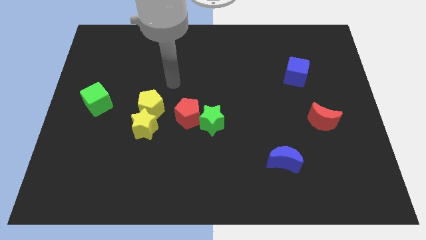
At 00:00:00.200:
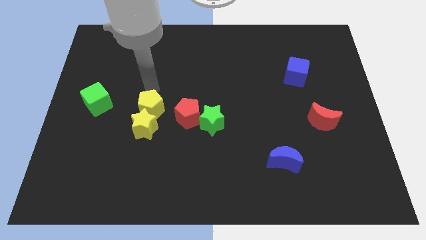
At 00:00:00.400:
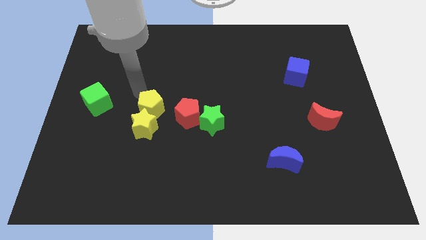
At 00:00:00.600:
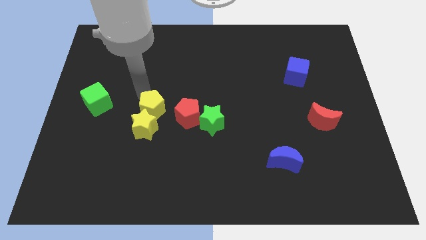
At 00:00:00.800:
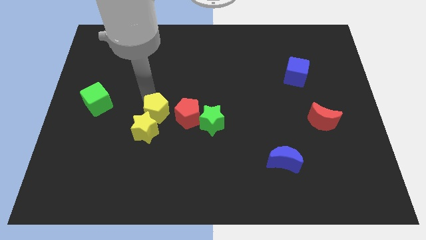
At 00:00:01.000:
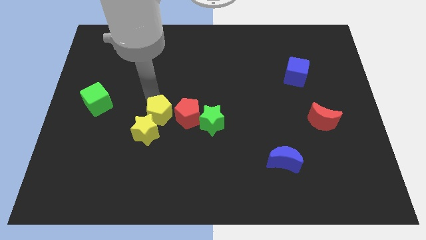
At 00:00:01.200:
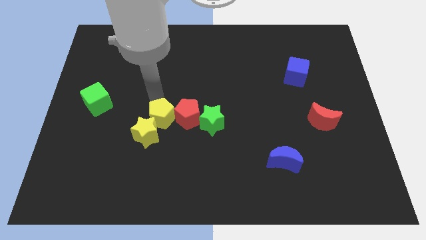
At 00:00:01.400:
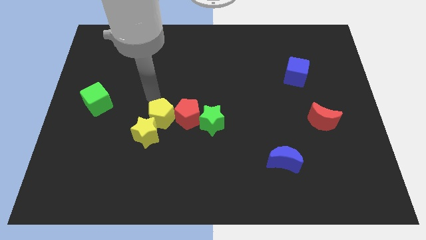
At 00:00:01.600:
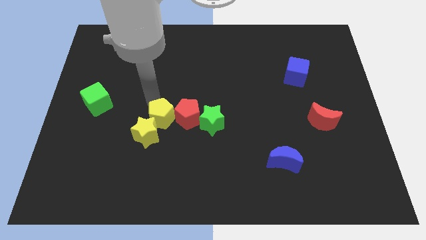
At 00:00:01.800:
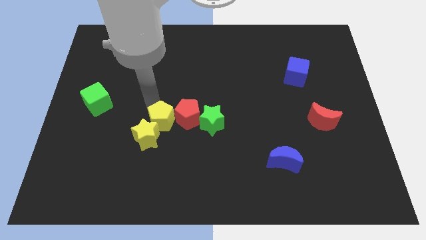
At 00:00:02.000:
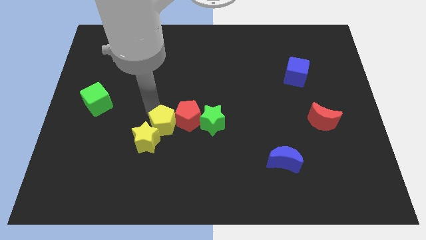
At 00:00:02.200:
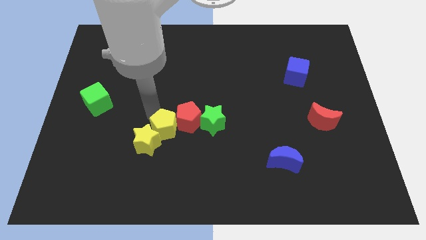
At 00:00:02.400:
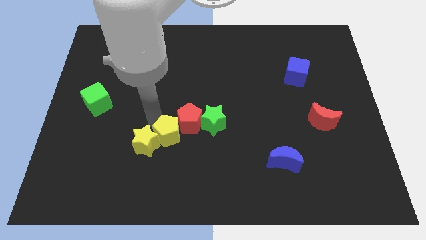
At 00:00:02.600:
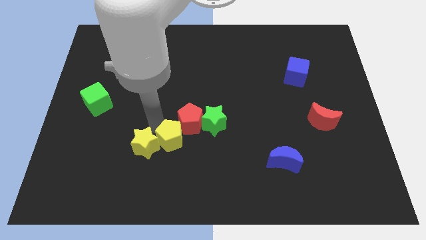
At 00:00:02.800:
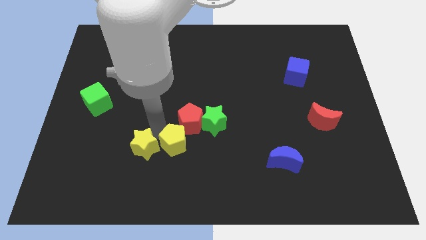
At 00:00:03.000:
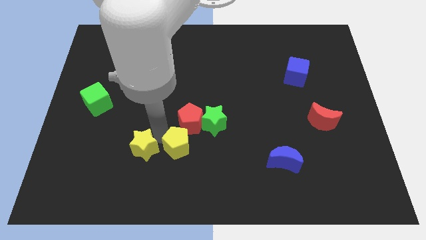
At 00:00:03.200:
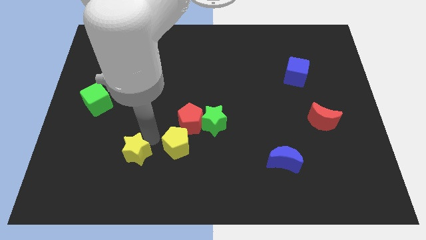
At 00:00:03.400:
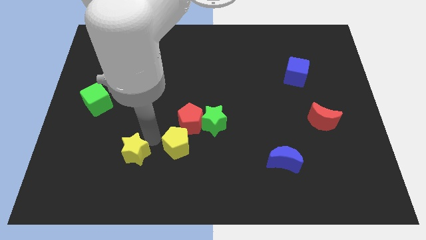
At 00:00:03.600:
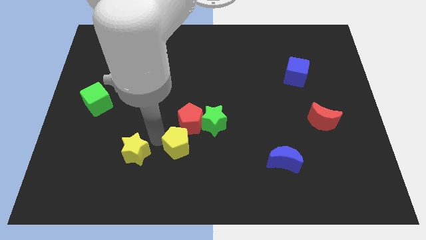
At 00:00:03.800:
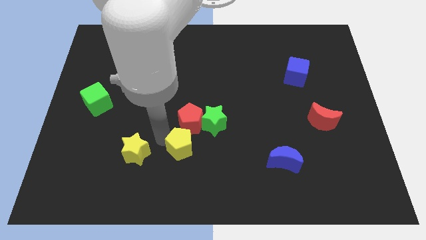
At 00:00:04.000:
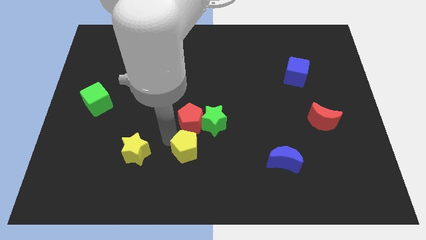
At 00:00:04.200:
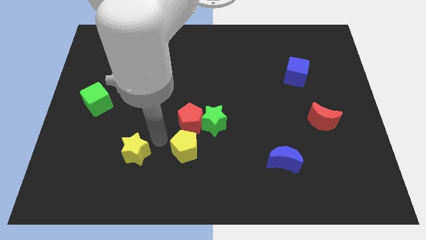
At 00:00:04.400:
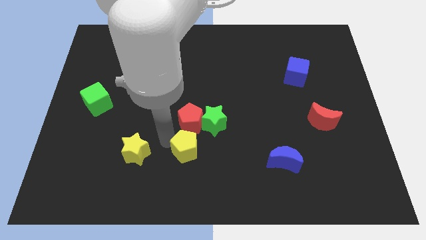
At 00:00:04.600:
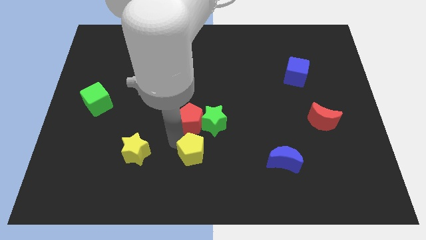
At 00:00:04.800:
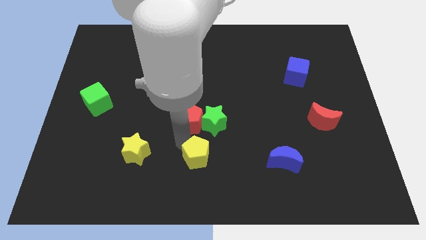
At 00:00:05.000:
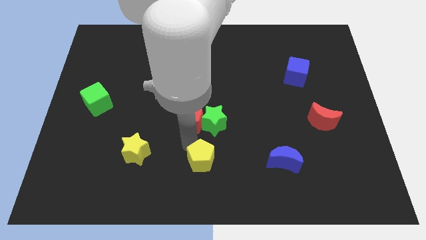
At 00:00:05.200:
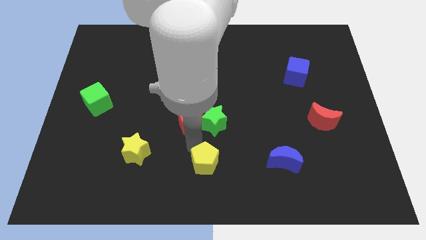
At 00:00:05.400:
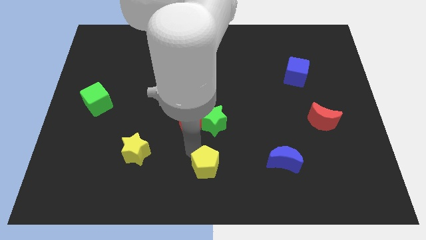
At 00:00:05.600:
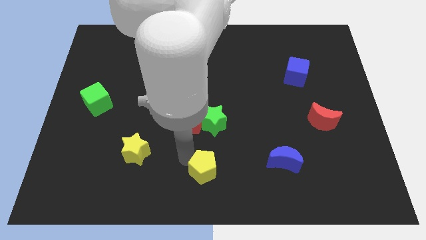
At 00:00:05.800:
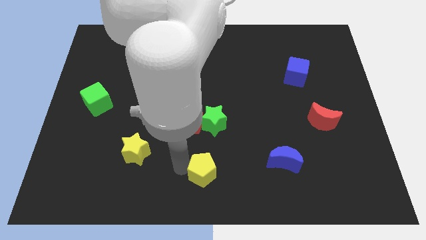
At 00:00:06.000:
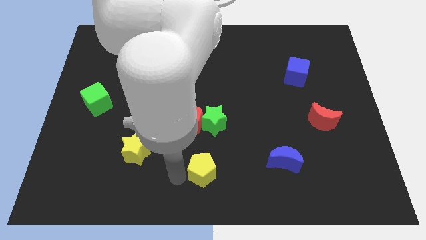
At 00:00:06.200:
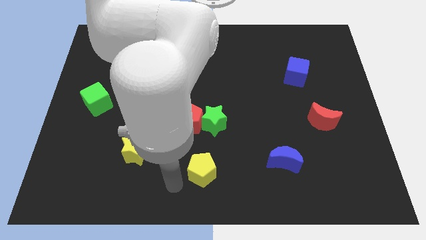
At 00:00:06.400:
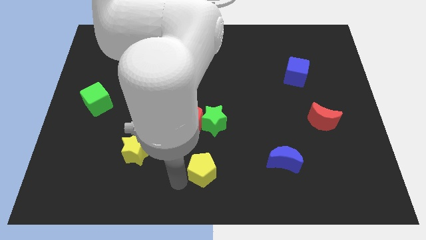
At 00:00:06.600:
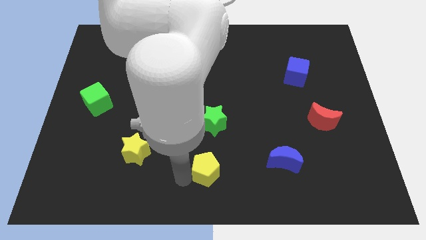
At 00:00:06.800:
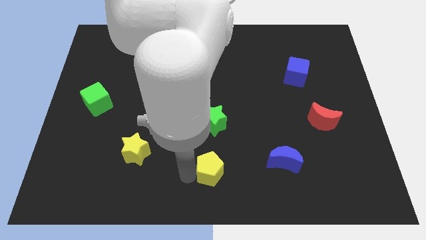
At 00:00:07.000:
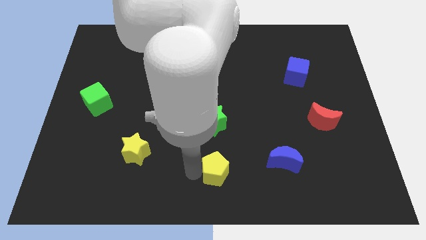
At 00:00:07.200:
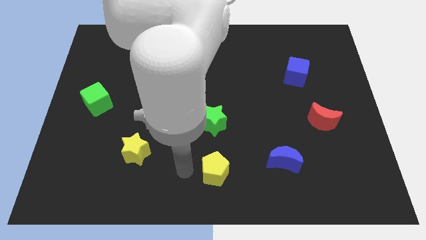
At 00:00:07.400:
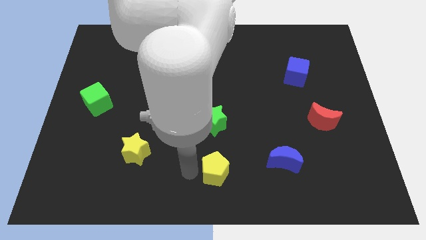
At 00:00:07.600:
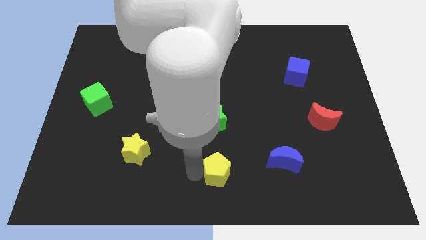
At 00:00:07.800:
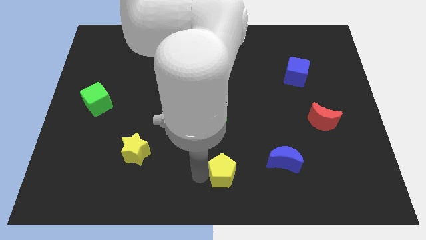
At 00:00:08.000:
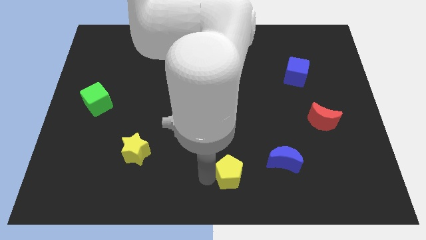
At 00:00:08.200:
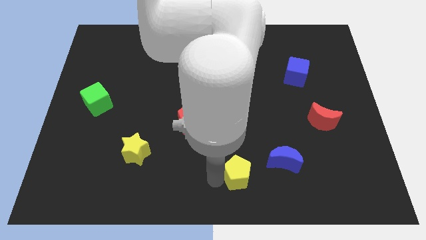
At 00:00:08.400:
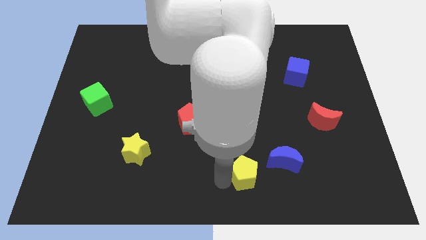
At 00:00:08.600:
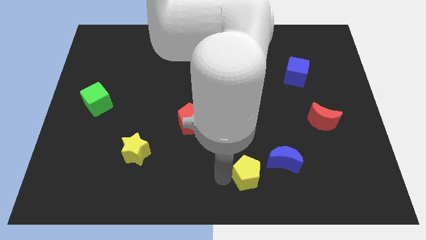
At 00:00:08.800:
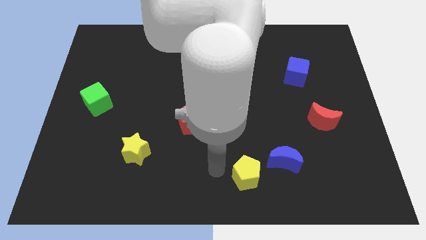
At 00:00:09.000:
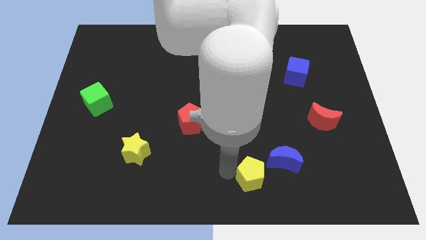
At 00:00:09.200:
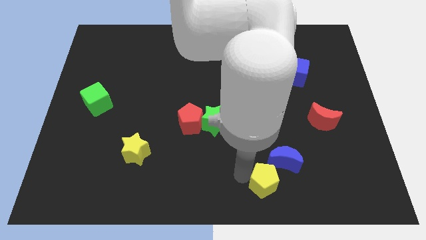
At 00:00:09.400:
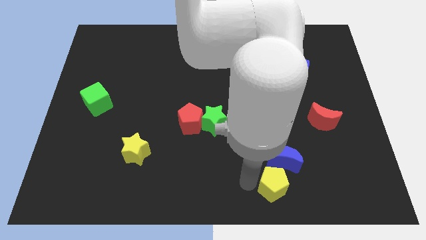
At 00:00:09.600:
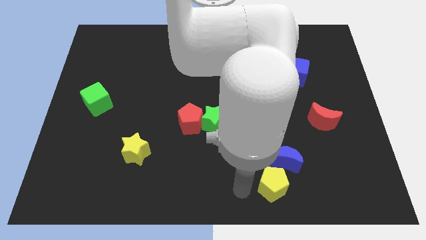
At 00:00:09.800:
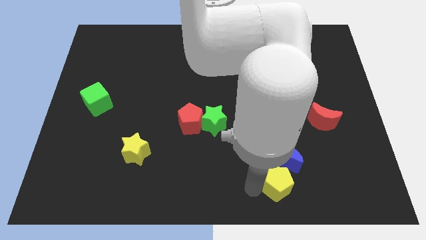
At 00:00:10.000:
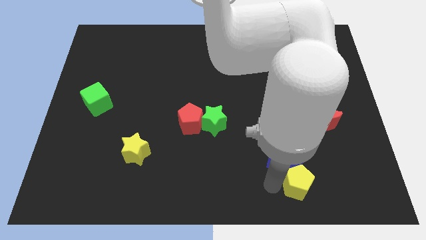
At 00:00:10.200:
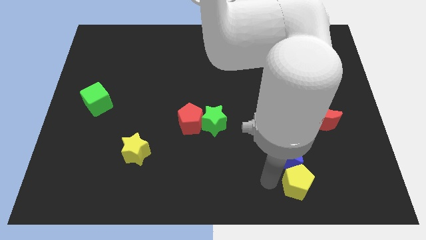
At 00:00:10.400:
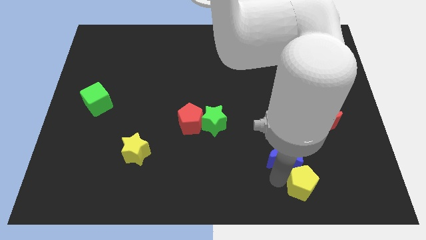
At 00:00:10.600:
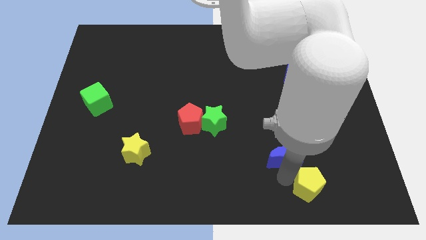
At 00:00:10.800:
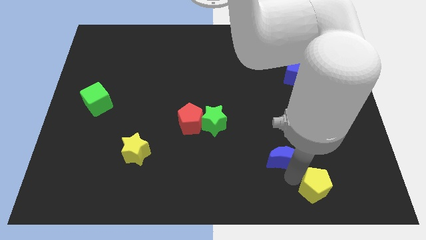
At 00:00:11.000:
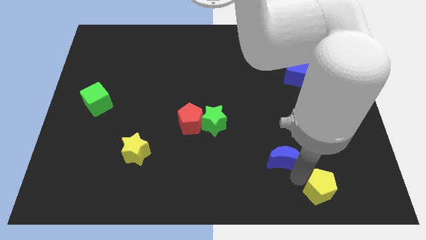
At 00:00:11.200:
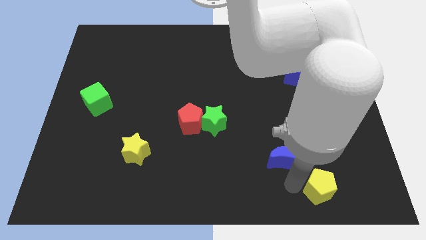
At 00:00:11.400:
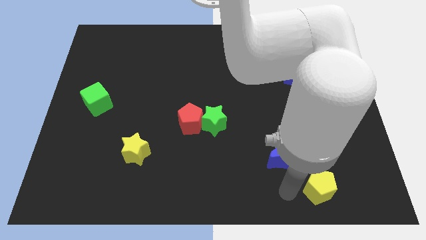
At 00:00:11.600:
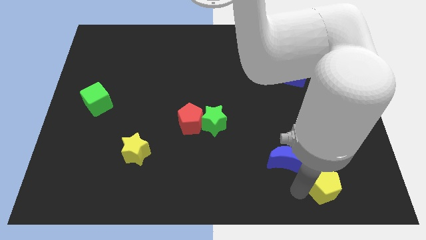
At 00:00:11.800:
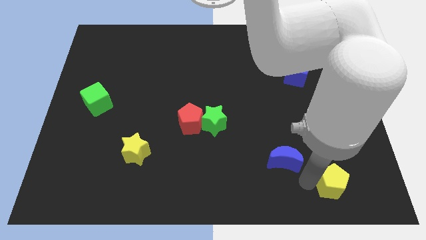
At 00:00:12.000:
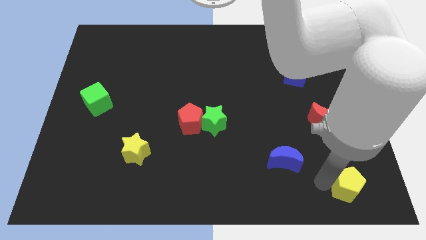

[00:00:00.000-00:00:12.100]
push the yellow pentagon to the bottom right corner
